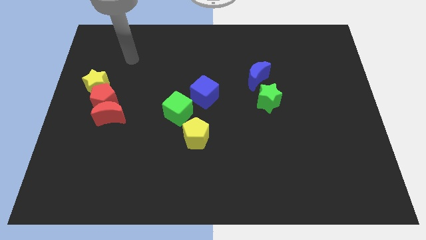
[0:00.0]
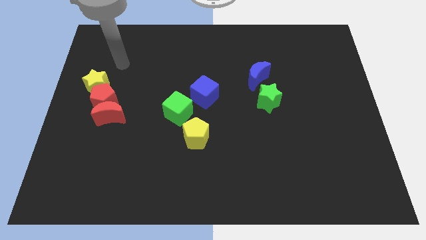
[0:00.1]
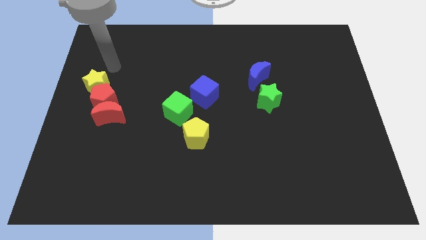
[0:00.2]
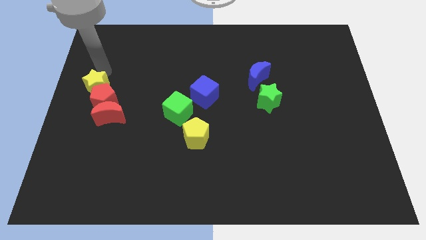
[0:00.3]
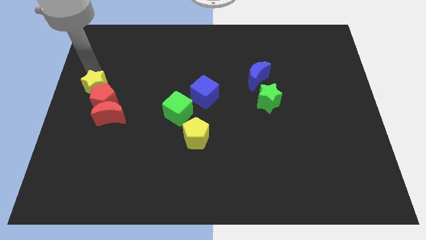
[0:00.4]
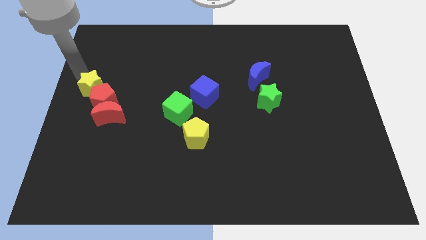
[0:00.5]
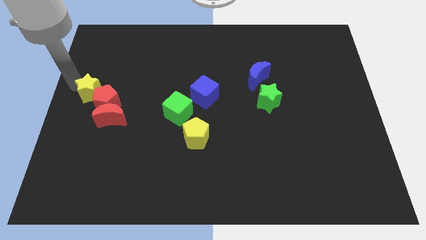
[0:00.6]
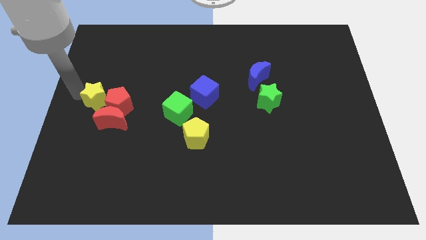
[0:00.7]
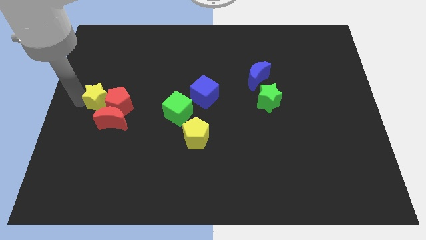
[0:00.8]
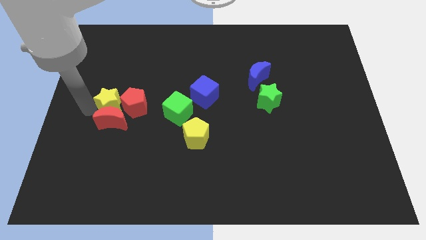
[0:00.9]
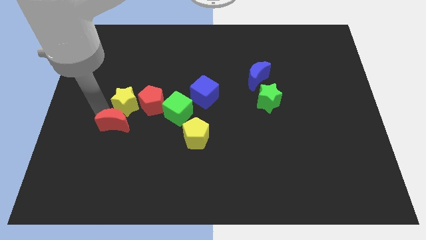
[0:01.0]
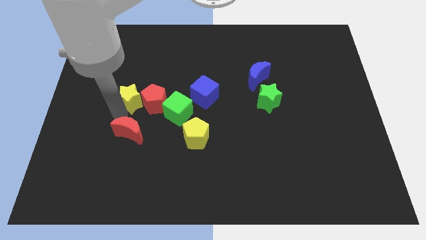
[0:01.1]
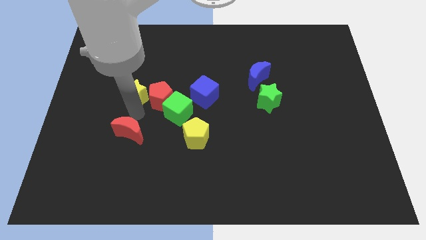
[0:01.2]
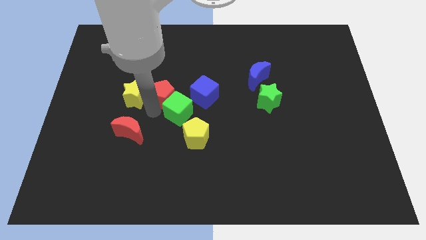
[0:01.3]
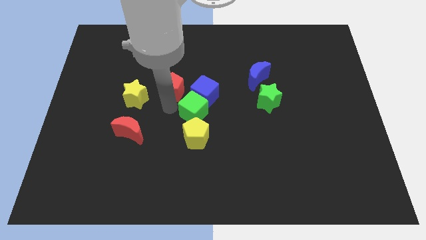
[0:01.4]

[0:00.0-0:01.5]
move the red pentagon away from the yellow star and red moon

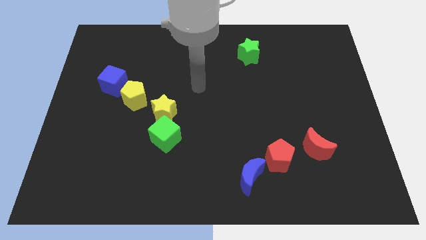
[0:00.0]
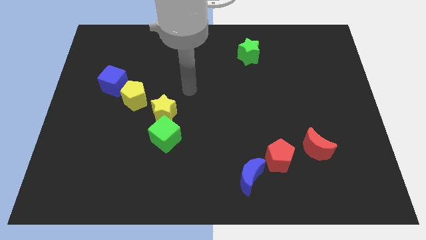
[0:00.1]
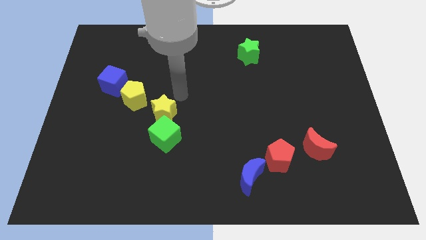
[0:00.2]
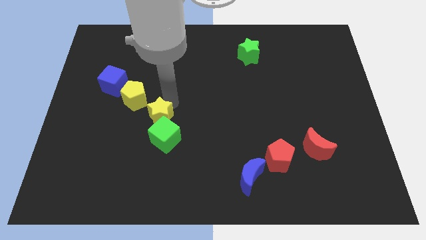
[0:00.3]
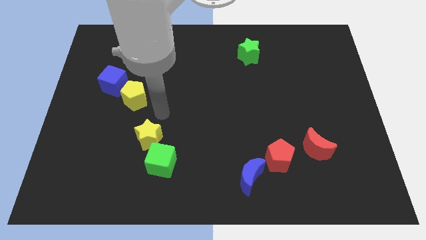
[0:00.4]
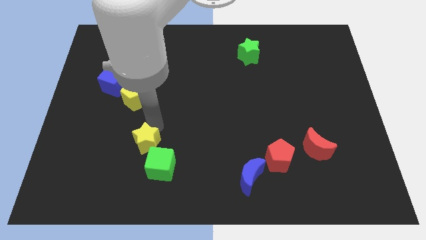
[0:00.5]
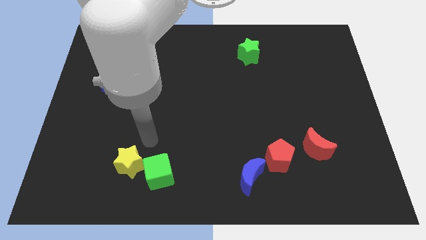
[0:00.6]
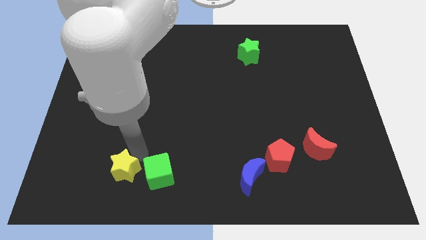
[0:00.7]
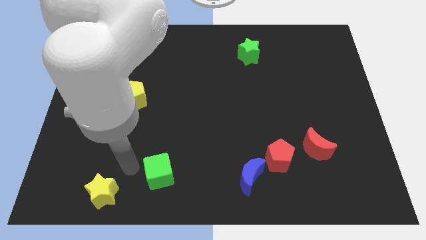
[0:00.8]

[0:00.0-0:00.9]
separate the green cube from the yellow star

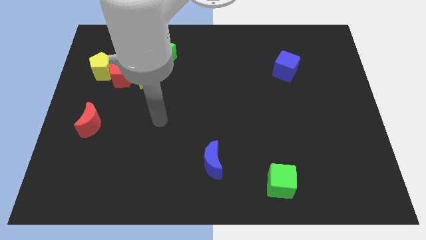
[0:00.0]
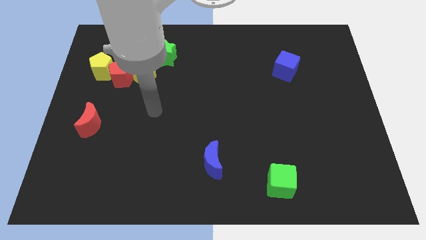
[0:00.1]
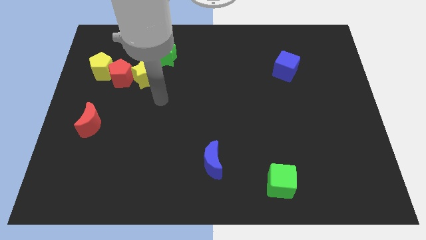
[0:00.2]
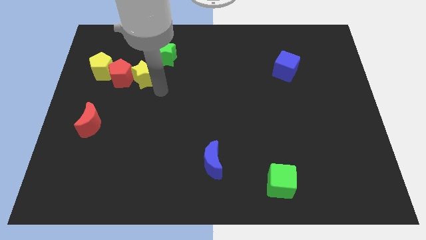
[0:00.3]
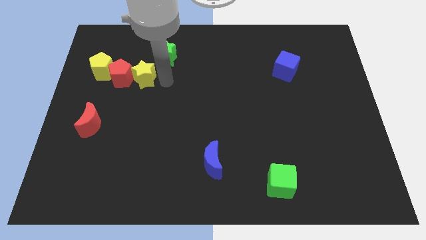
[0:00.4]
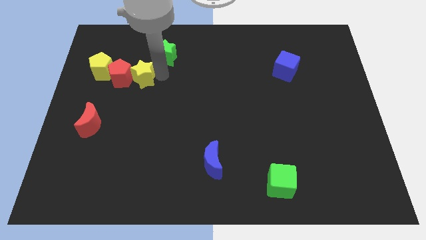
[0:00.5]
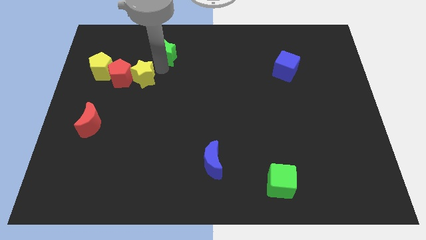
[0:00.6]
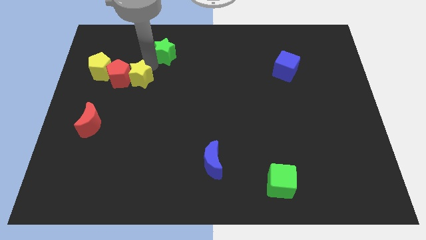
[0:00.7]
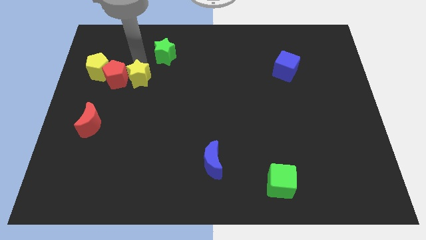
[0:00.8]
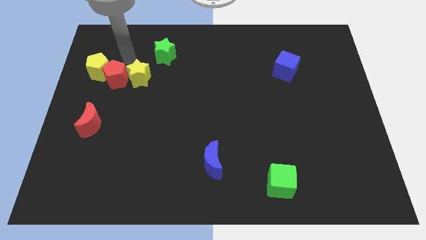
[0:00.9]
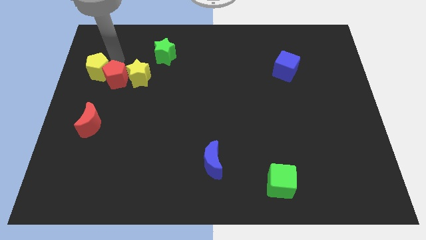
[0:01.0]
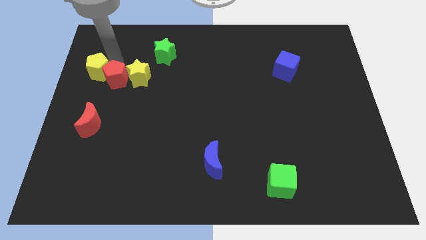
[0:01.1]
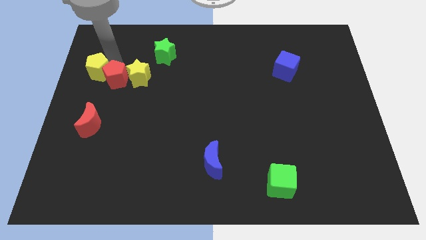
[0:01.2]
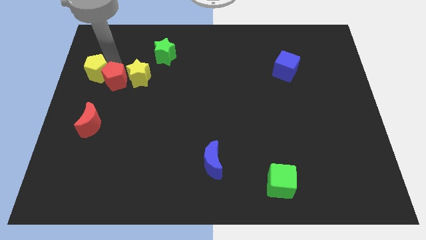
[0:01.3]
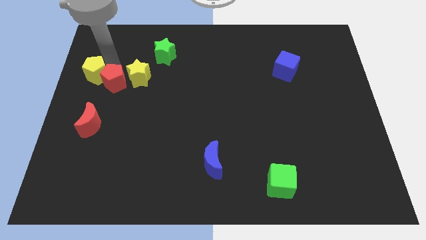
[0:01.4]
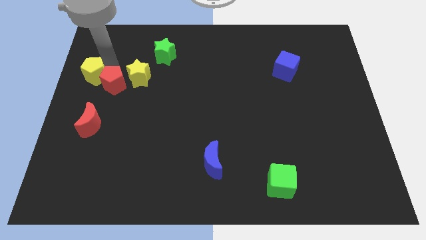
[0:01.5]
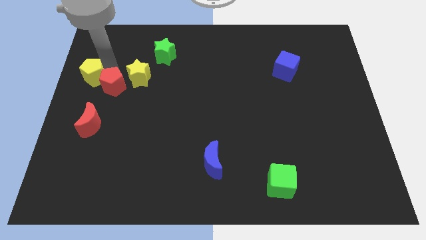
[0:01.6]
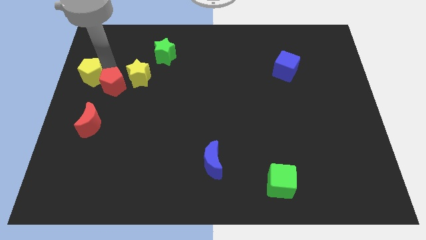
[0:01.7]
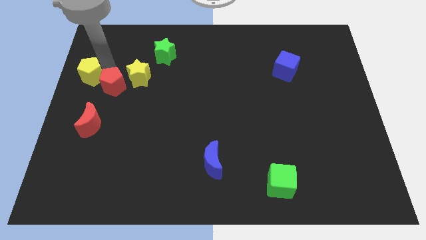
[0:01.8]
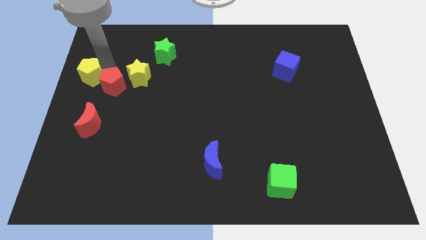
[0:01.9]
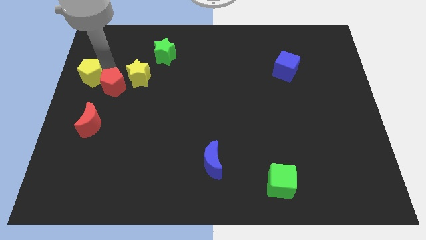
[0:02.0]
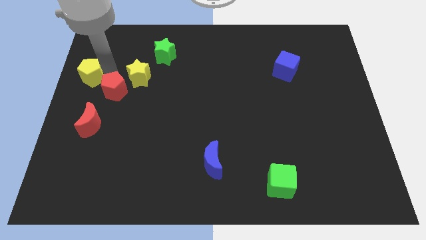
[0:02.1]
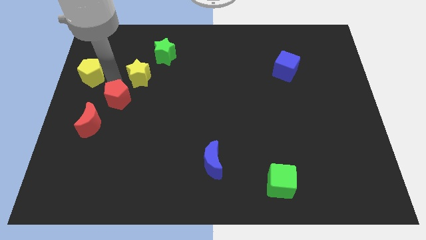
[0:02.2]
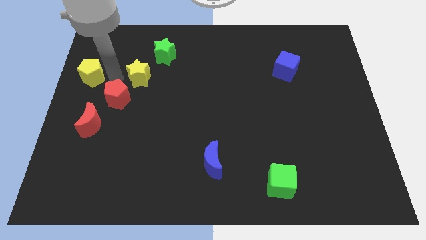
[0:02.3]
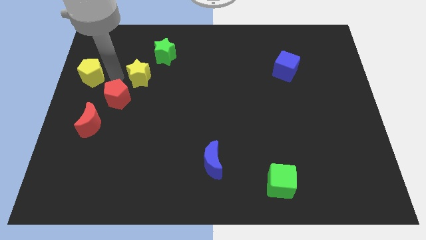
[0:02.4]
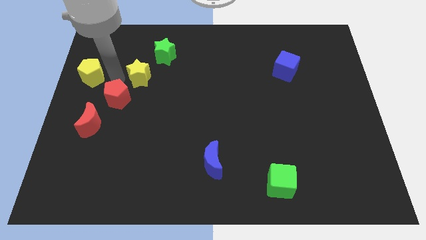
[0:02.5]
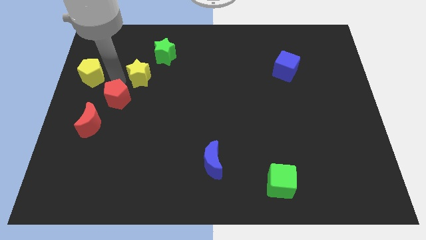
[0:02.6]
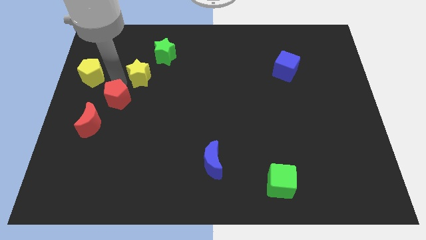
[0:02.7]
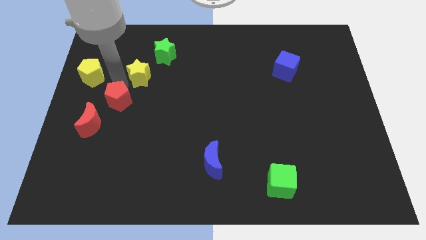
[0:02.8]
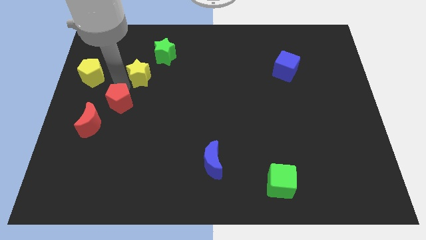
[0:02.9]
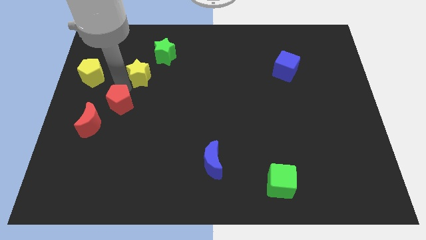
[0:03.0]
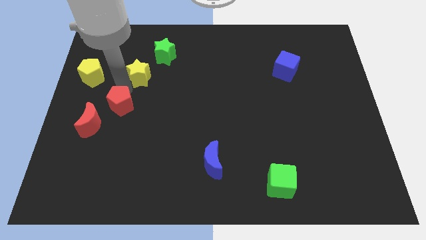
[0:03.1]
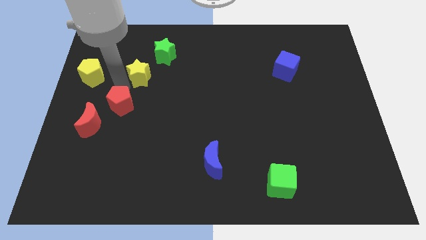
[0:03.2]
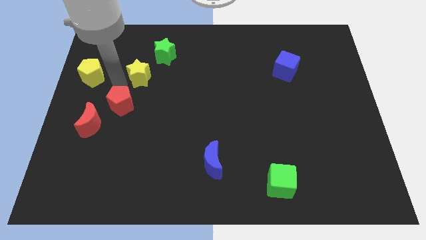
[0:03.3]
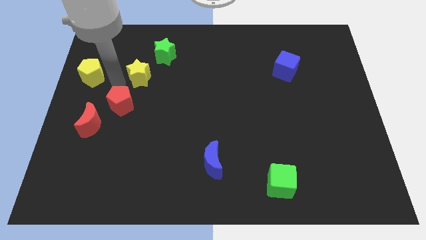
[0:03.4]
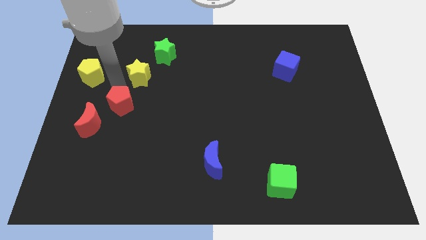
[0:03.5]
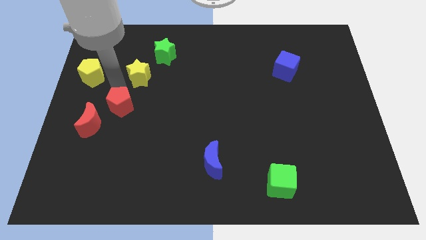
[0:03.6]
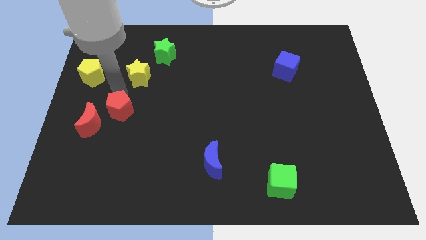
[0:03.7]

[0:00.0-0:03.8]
move the red pentagon away from the yellow star and yellow pentagon

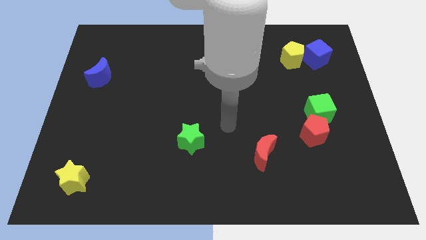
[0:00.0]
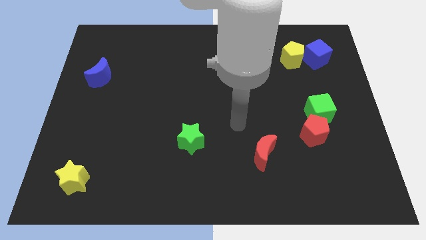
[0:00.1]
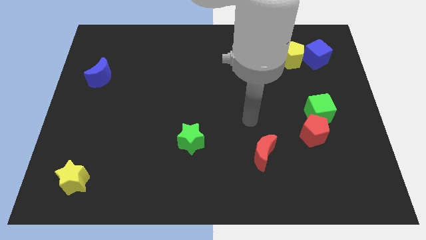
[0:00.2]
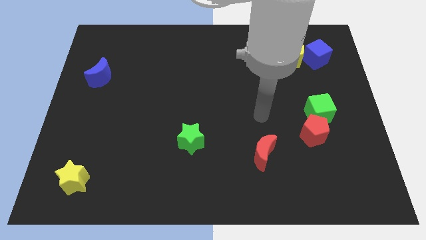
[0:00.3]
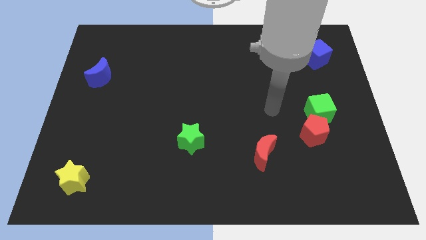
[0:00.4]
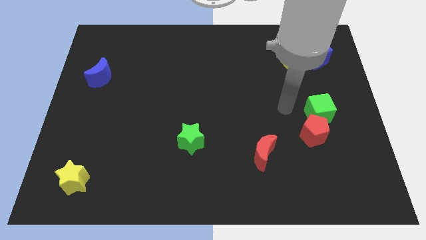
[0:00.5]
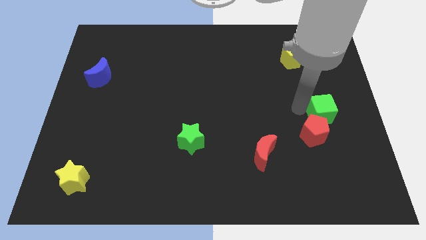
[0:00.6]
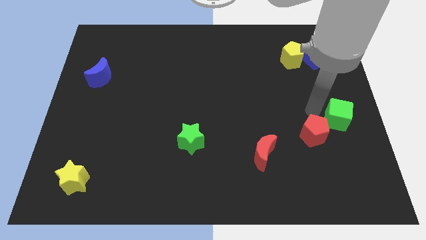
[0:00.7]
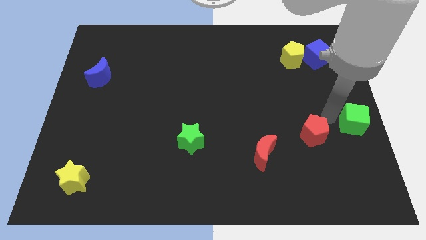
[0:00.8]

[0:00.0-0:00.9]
move the red pentagon away from the green cube

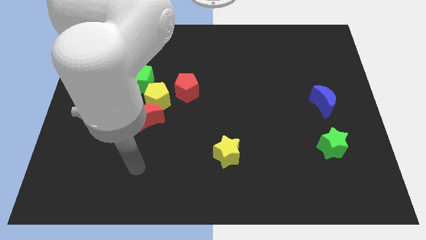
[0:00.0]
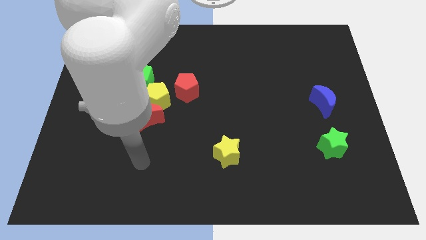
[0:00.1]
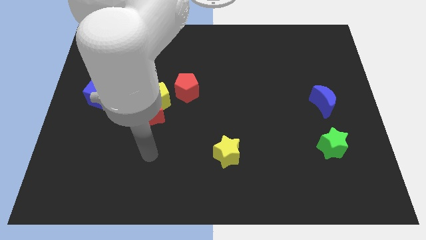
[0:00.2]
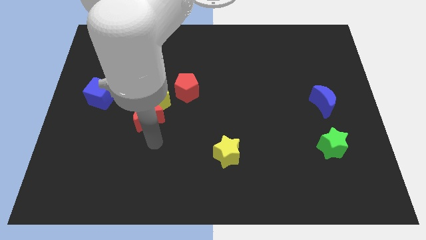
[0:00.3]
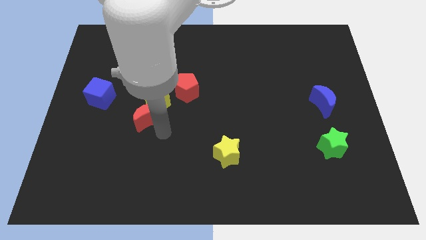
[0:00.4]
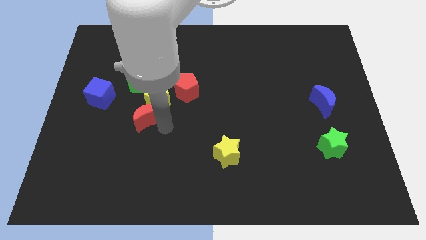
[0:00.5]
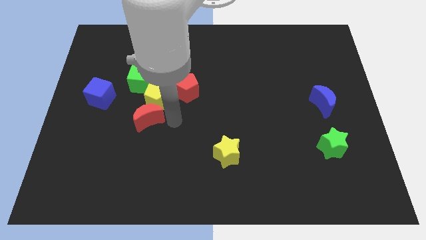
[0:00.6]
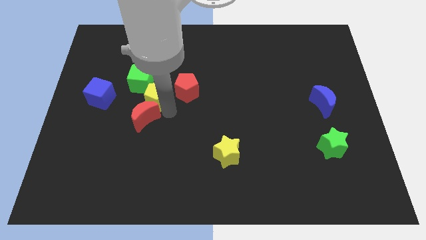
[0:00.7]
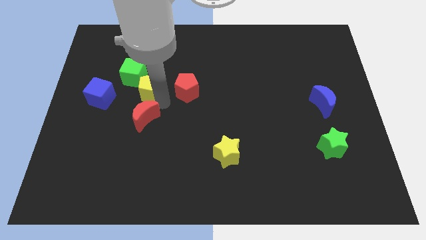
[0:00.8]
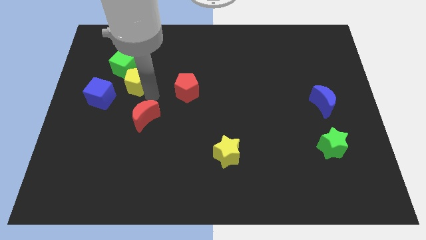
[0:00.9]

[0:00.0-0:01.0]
move the red moon away from the yellow pentagon

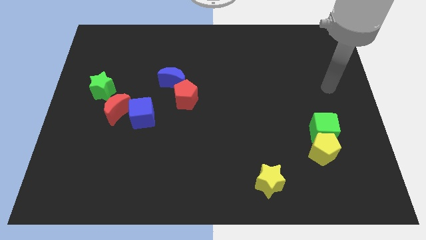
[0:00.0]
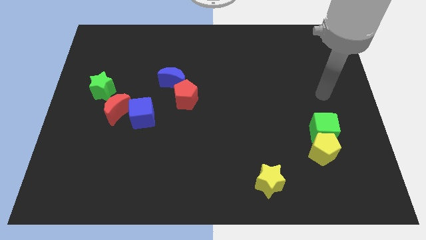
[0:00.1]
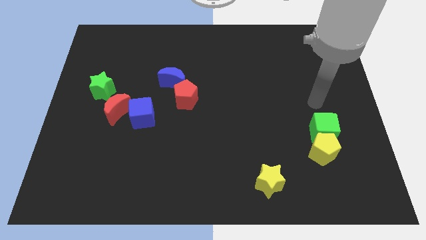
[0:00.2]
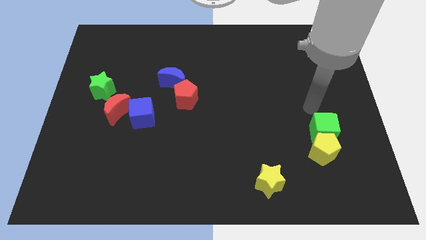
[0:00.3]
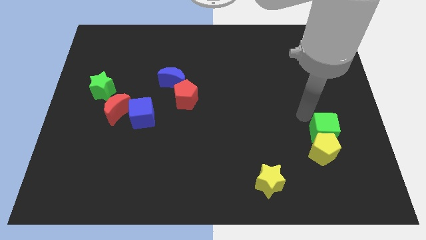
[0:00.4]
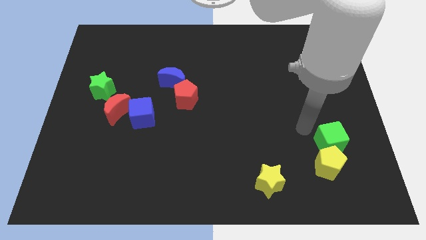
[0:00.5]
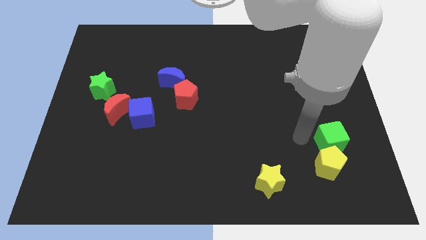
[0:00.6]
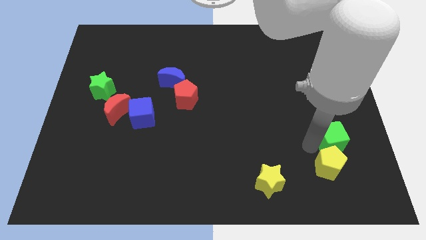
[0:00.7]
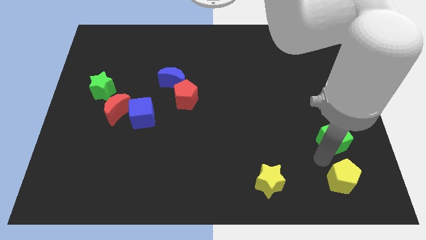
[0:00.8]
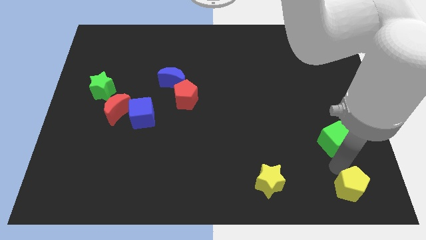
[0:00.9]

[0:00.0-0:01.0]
separate the green cube from the yellow pentagon

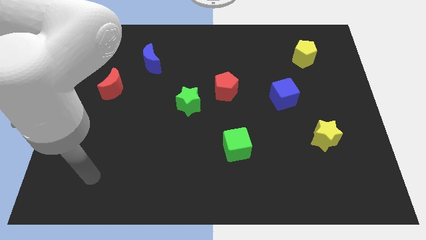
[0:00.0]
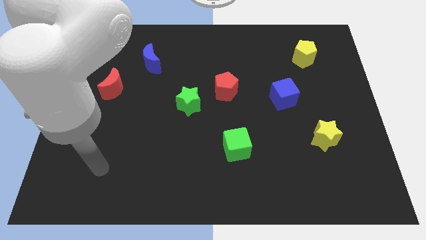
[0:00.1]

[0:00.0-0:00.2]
move the red pentagon away from the green star
